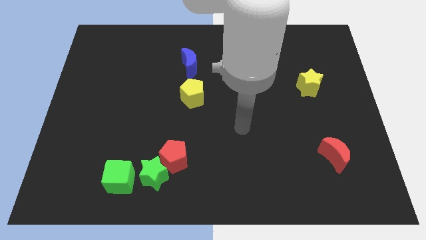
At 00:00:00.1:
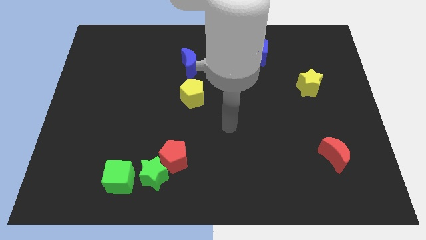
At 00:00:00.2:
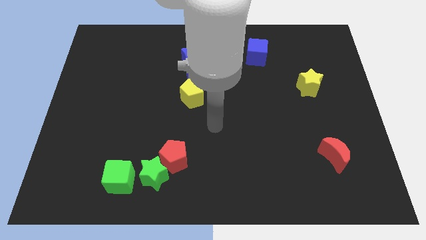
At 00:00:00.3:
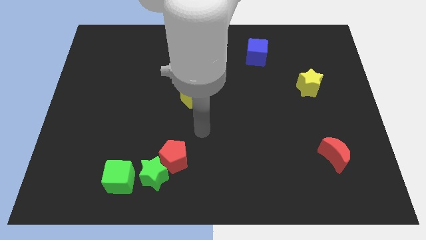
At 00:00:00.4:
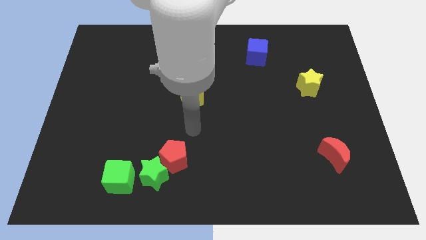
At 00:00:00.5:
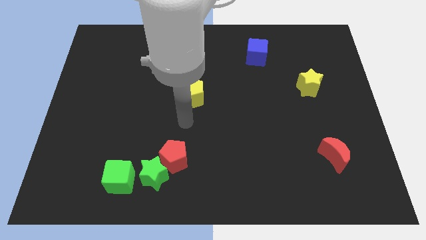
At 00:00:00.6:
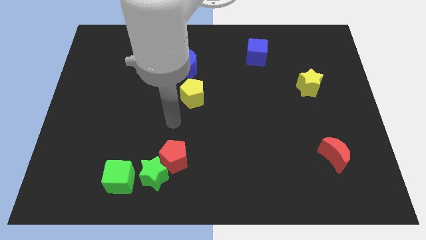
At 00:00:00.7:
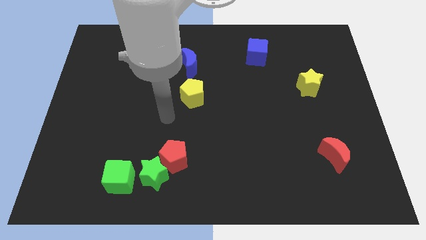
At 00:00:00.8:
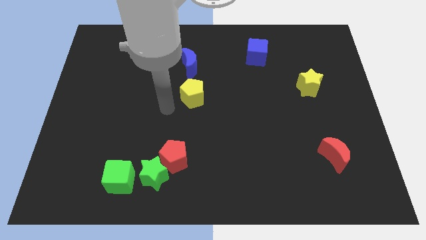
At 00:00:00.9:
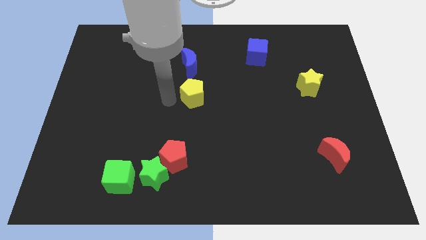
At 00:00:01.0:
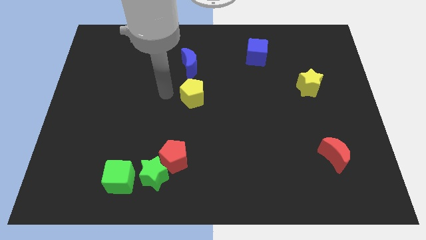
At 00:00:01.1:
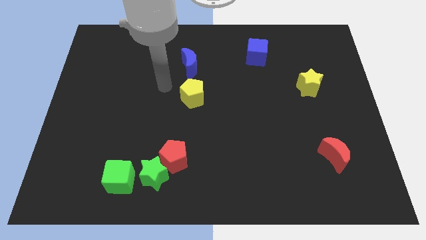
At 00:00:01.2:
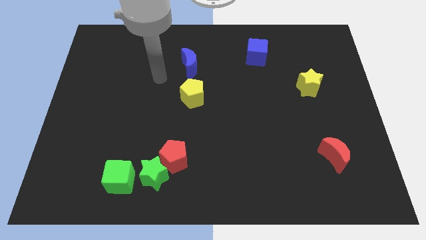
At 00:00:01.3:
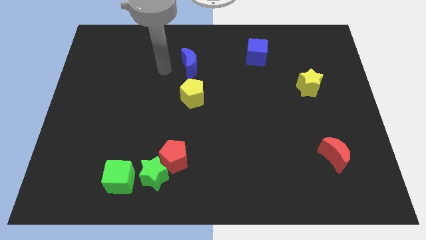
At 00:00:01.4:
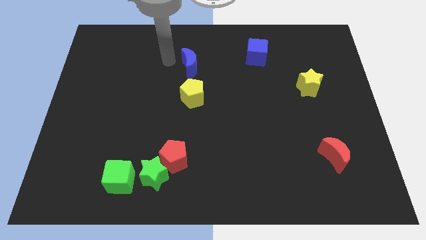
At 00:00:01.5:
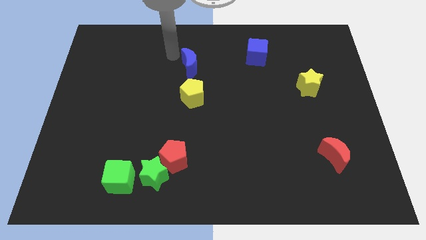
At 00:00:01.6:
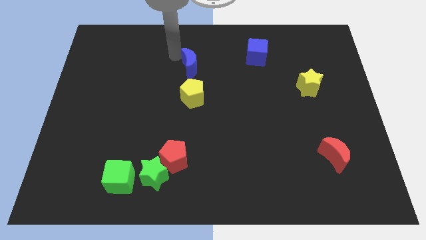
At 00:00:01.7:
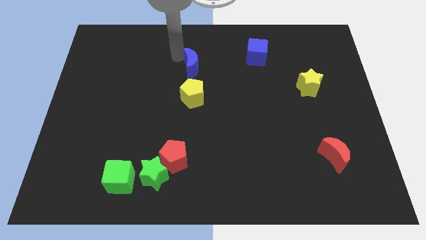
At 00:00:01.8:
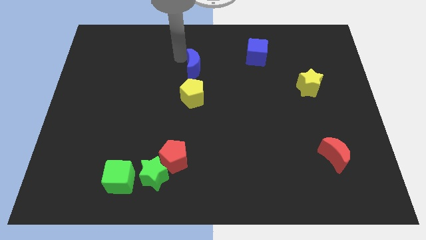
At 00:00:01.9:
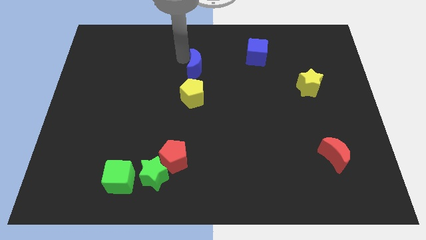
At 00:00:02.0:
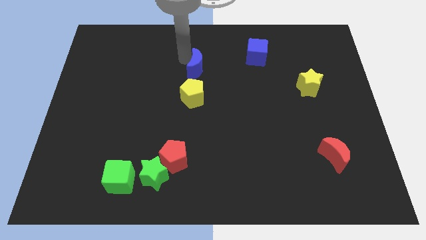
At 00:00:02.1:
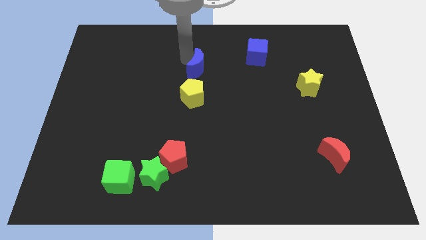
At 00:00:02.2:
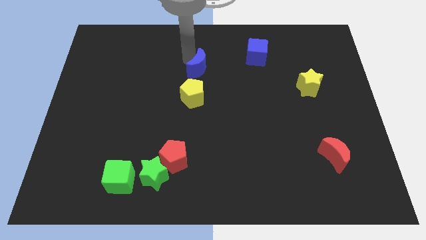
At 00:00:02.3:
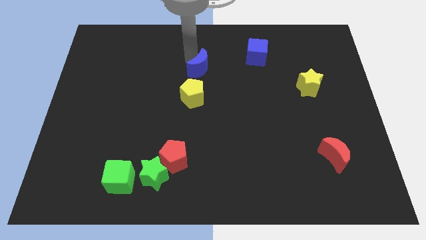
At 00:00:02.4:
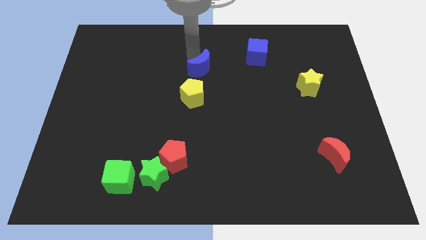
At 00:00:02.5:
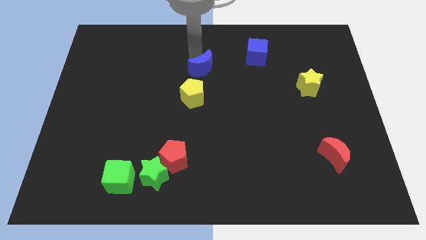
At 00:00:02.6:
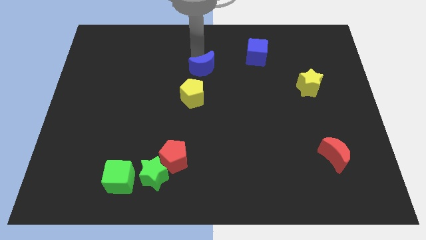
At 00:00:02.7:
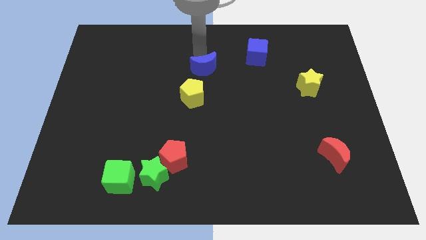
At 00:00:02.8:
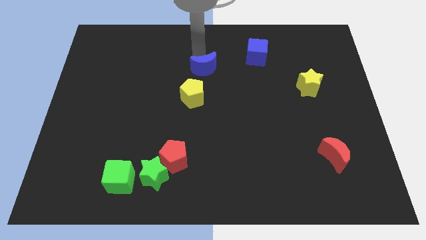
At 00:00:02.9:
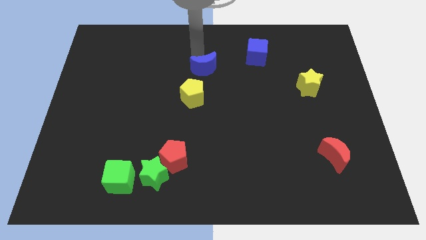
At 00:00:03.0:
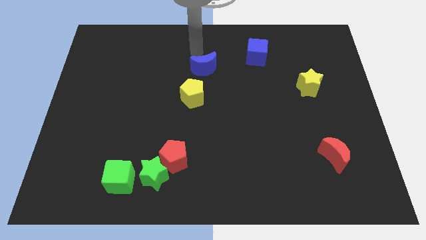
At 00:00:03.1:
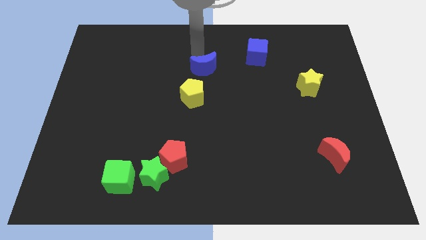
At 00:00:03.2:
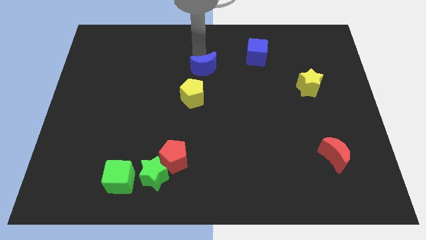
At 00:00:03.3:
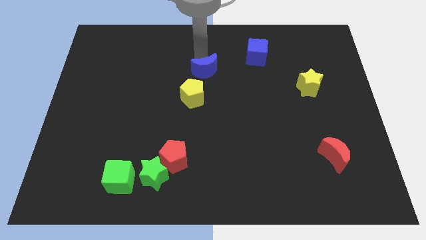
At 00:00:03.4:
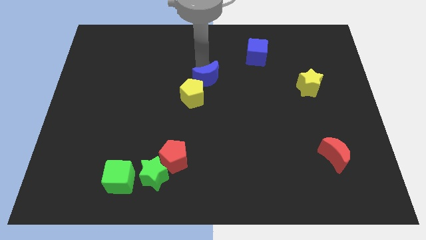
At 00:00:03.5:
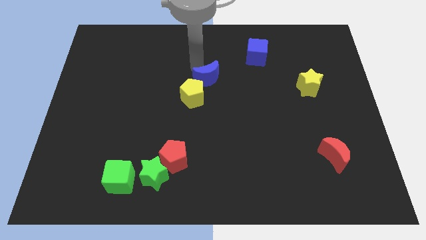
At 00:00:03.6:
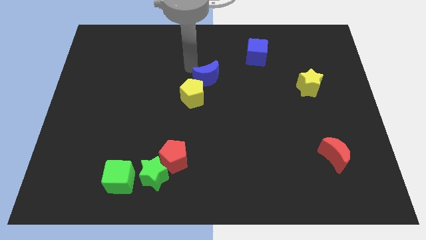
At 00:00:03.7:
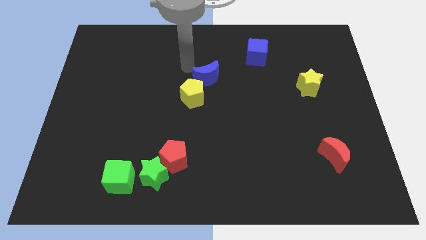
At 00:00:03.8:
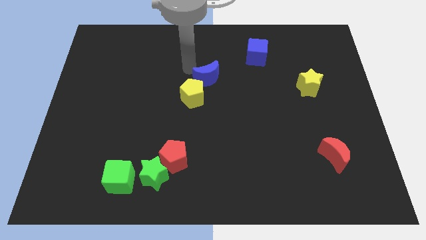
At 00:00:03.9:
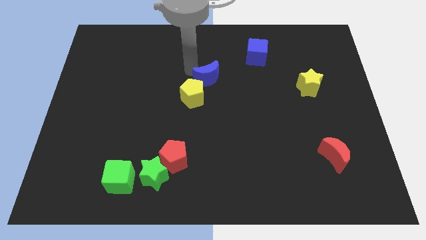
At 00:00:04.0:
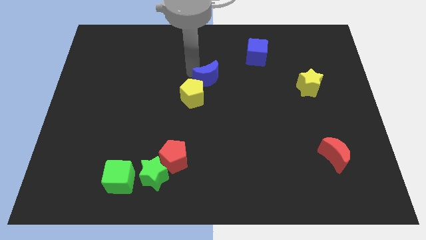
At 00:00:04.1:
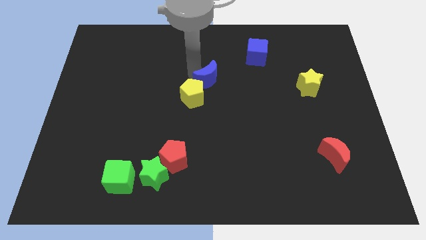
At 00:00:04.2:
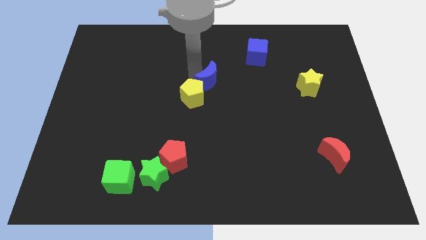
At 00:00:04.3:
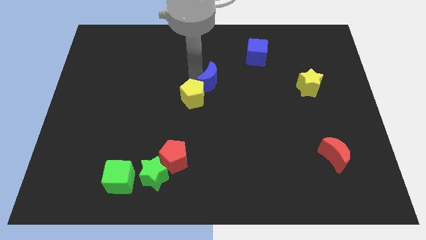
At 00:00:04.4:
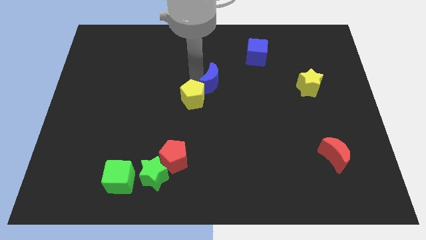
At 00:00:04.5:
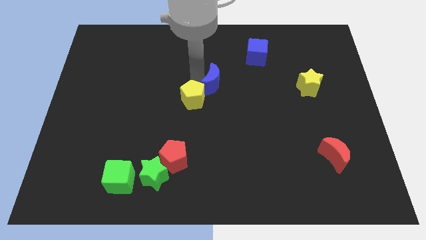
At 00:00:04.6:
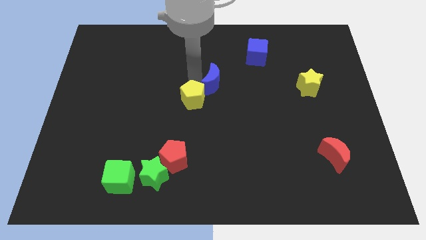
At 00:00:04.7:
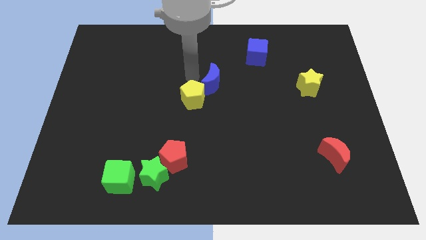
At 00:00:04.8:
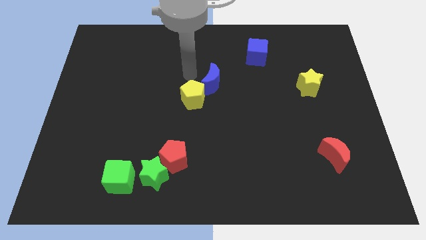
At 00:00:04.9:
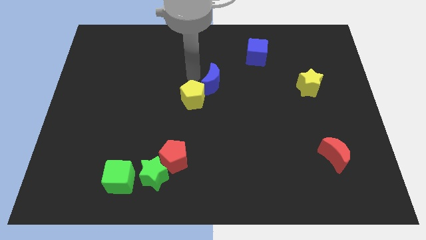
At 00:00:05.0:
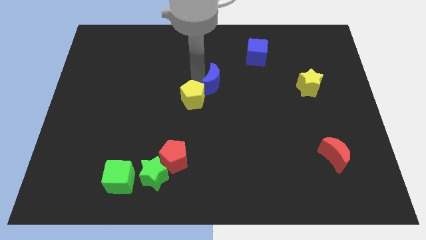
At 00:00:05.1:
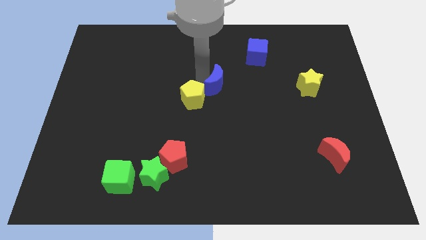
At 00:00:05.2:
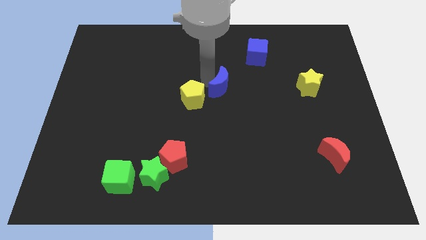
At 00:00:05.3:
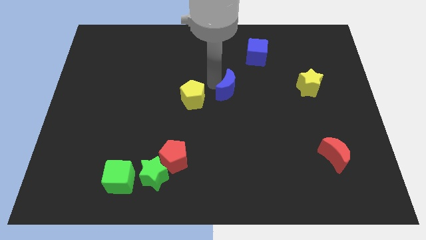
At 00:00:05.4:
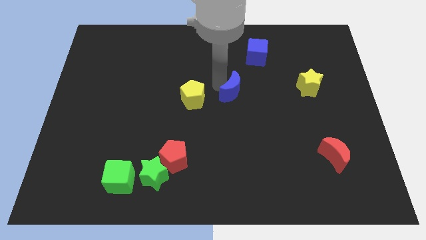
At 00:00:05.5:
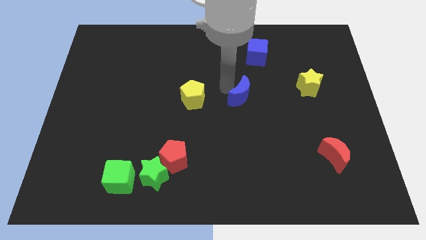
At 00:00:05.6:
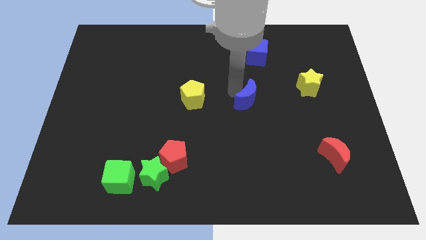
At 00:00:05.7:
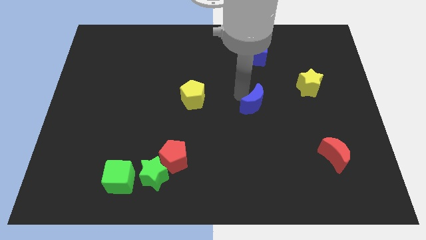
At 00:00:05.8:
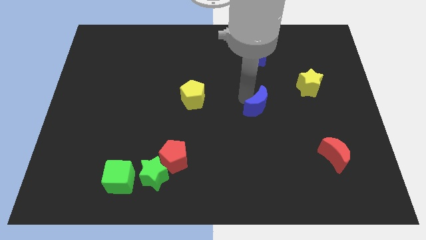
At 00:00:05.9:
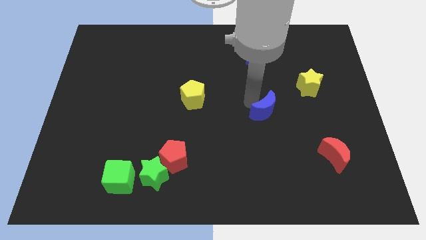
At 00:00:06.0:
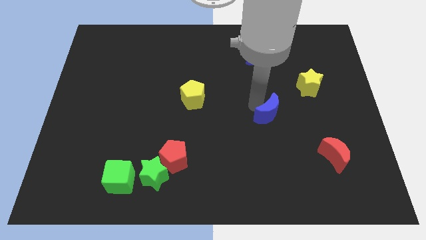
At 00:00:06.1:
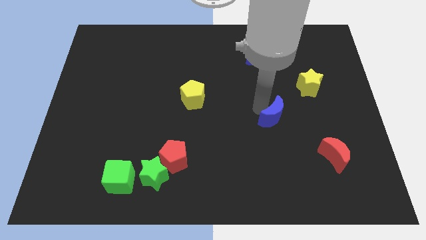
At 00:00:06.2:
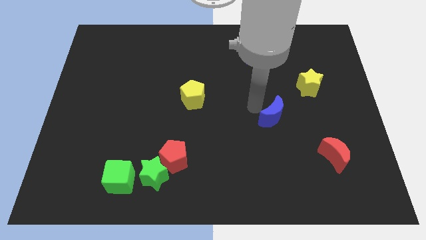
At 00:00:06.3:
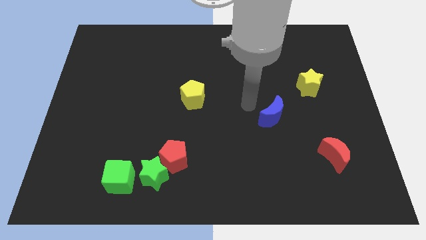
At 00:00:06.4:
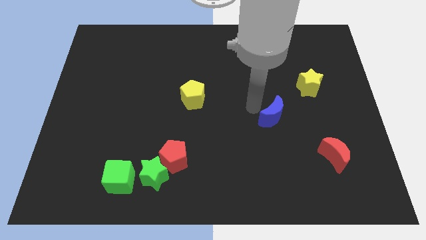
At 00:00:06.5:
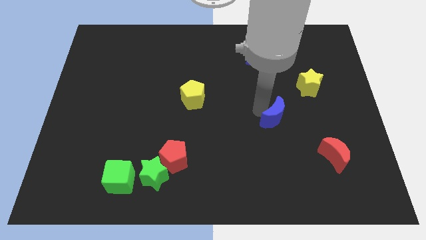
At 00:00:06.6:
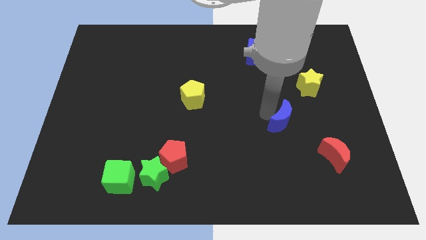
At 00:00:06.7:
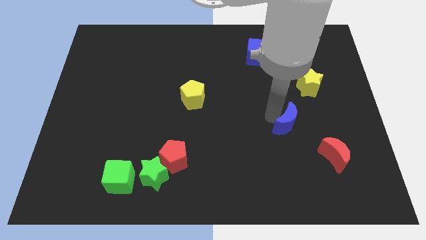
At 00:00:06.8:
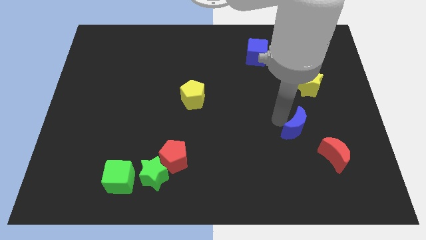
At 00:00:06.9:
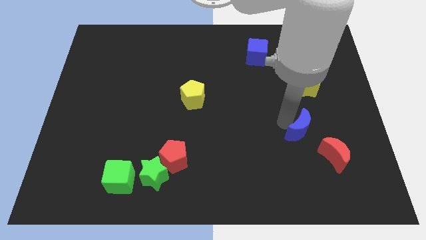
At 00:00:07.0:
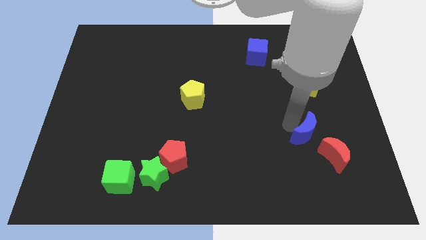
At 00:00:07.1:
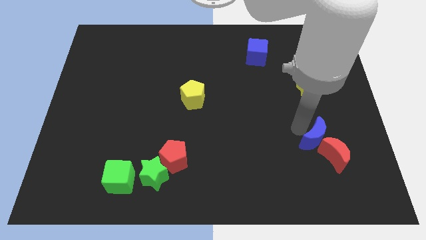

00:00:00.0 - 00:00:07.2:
push the blue moon next to the red moon
